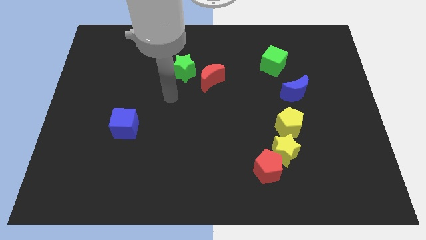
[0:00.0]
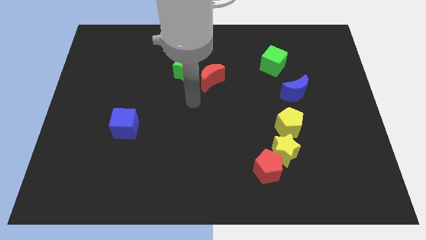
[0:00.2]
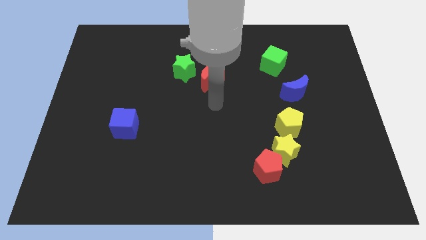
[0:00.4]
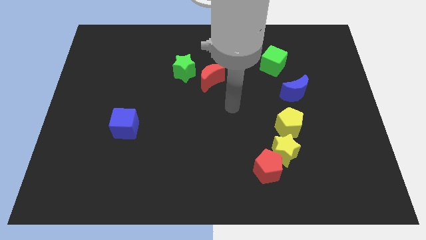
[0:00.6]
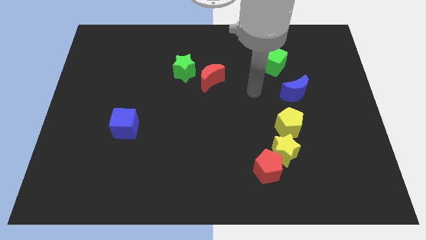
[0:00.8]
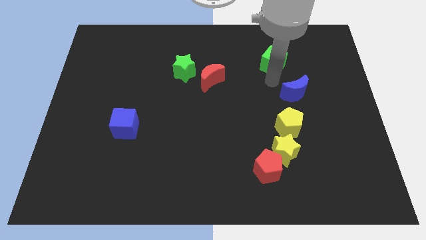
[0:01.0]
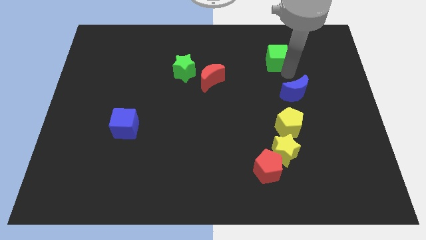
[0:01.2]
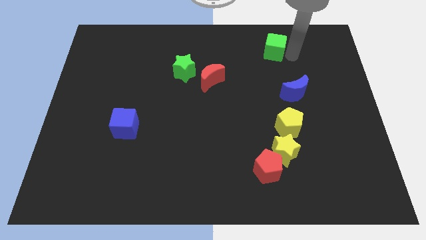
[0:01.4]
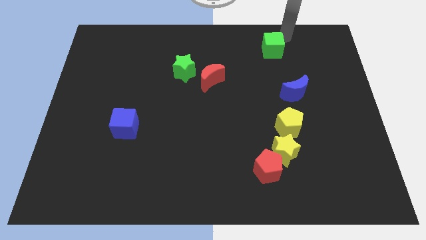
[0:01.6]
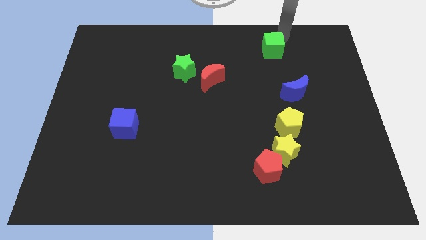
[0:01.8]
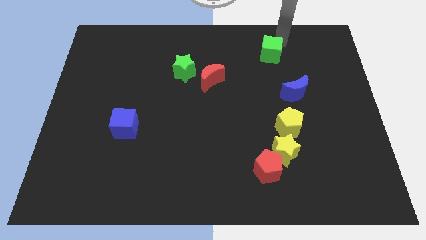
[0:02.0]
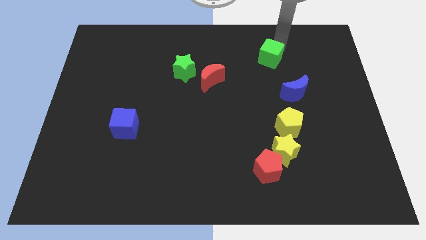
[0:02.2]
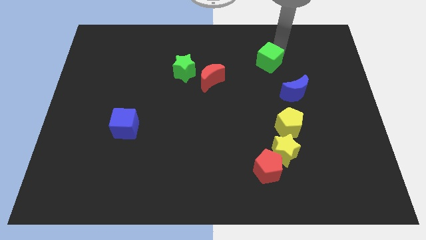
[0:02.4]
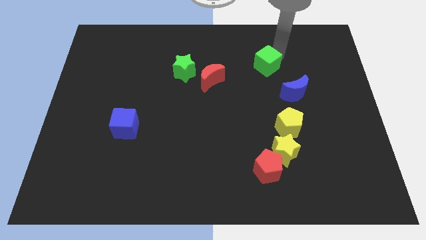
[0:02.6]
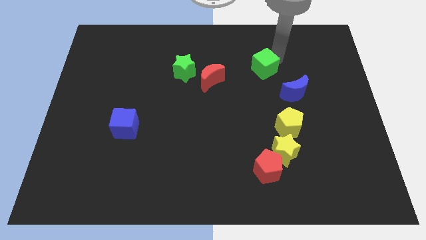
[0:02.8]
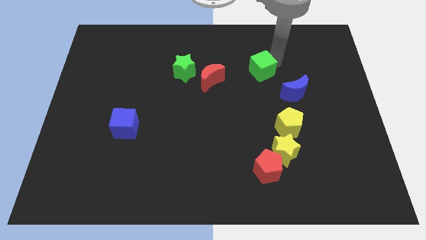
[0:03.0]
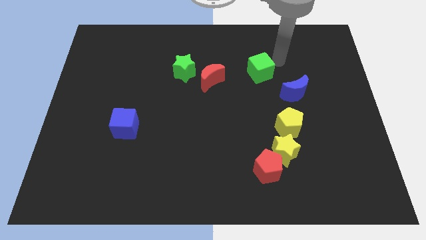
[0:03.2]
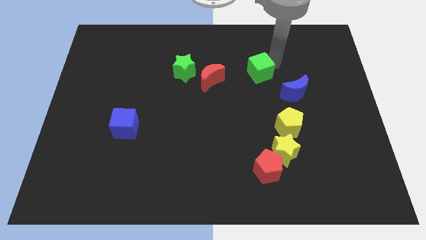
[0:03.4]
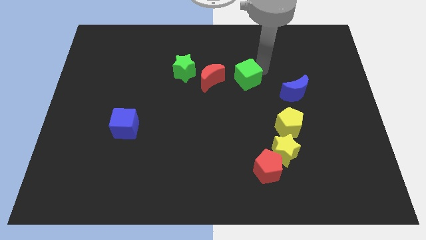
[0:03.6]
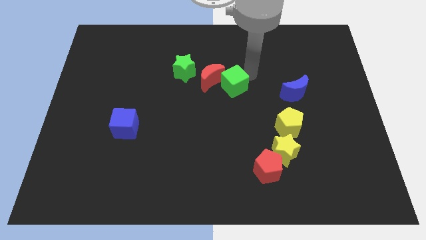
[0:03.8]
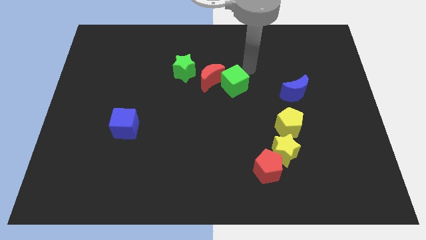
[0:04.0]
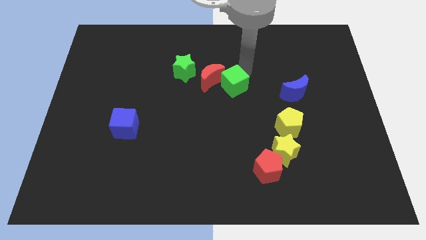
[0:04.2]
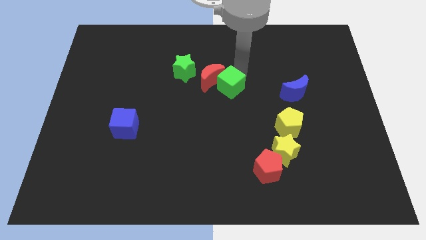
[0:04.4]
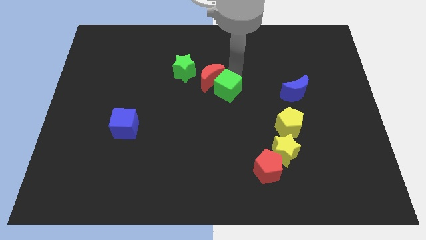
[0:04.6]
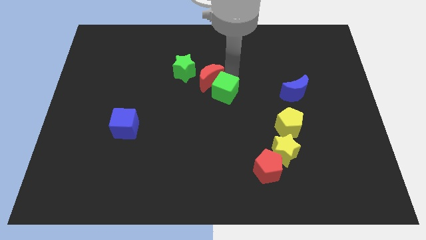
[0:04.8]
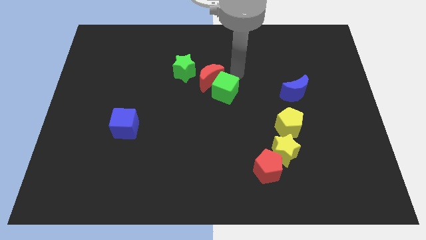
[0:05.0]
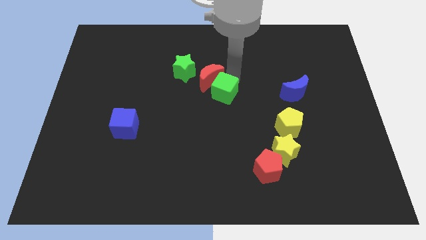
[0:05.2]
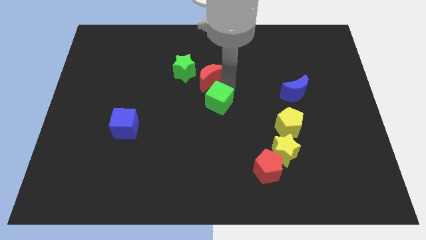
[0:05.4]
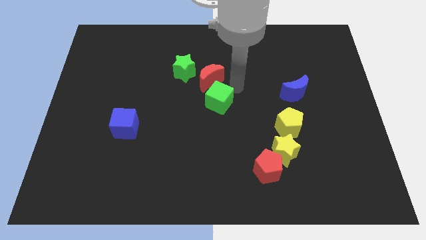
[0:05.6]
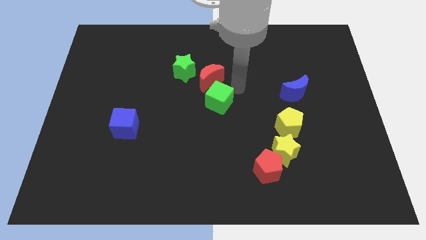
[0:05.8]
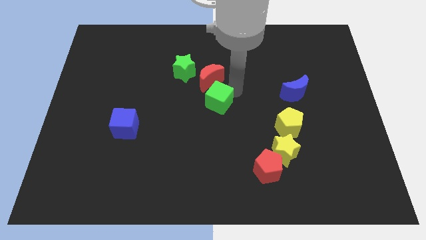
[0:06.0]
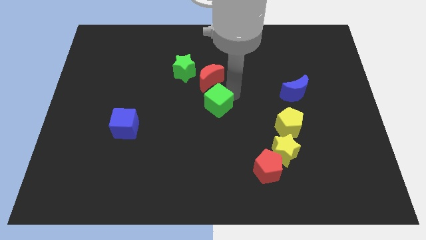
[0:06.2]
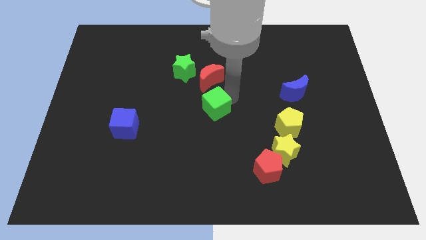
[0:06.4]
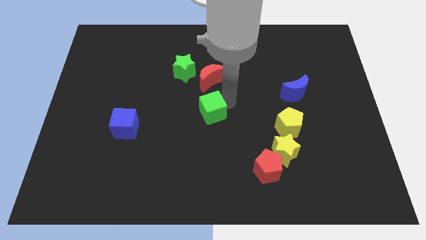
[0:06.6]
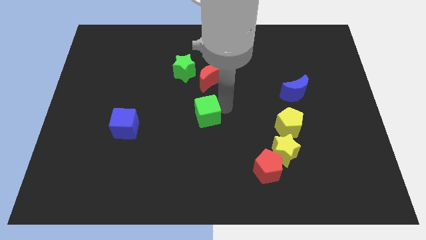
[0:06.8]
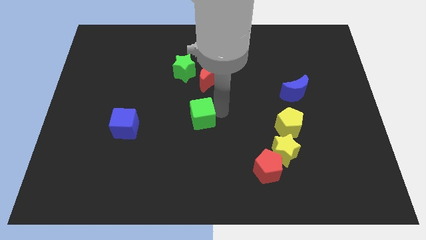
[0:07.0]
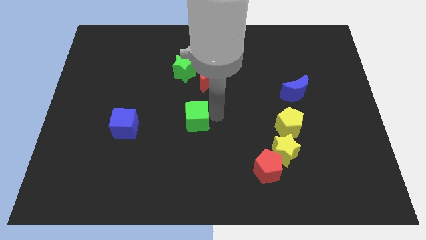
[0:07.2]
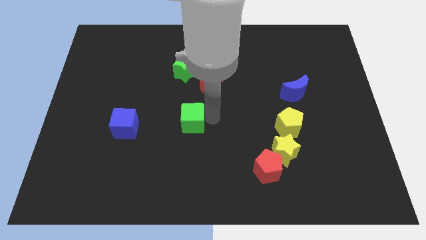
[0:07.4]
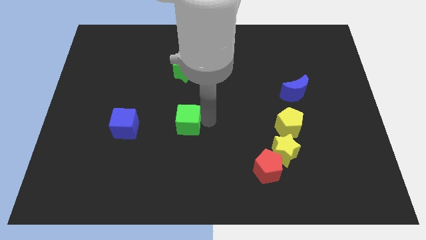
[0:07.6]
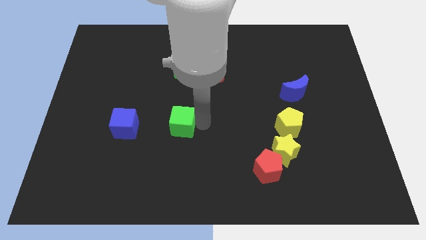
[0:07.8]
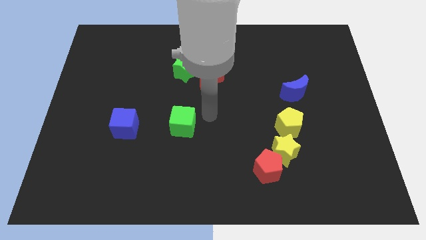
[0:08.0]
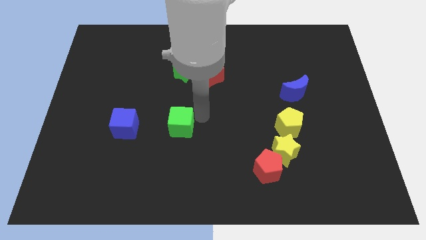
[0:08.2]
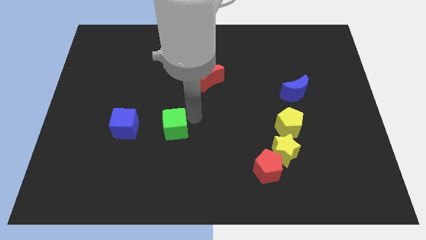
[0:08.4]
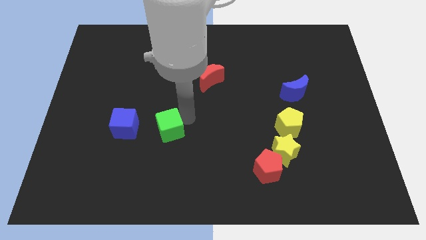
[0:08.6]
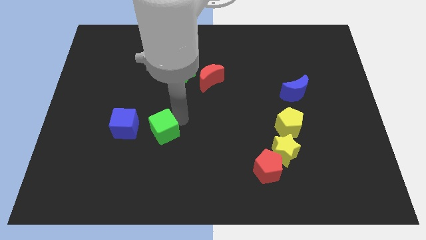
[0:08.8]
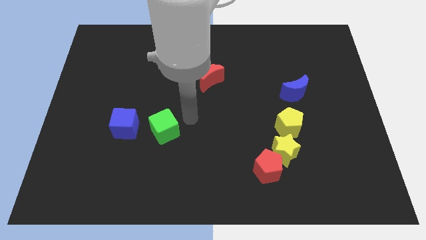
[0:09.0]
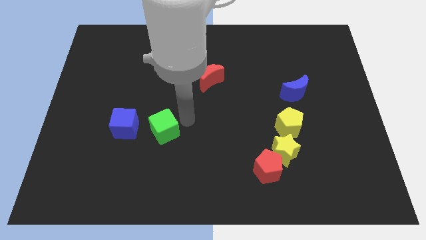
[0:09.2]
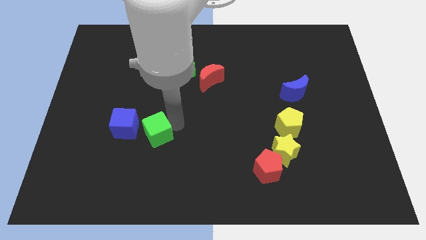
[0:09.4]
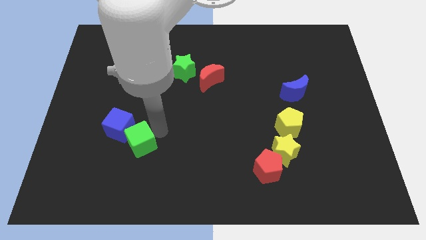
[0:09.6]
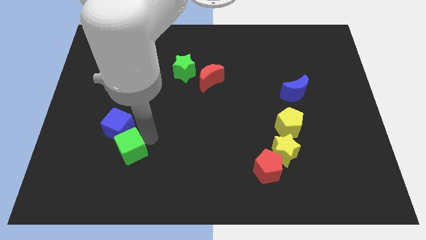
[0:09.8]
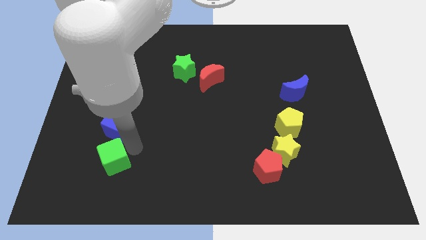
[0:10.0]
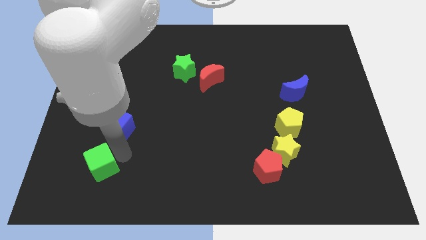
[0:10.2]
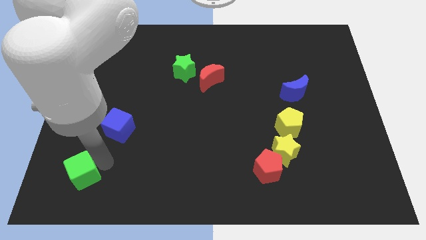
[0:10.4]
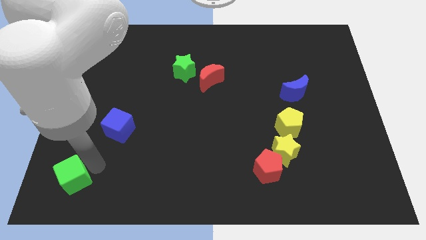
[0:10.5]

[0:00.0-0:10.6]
push the green cube to the bottom left of the board

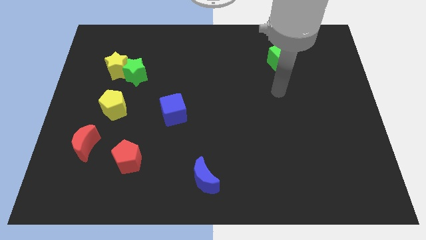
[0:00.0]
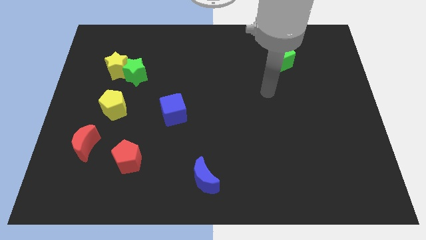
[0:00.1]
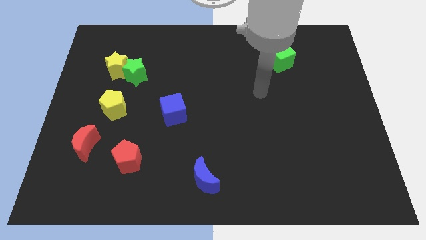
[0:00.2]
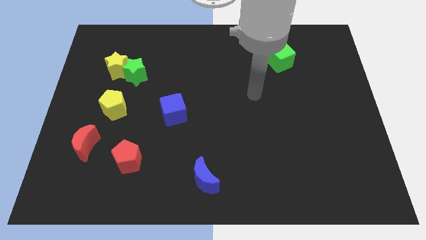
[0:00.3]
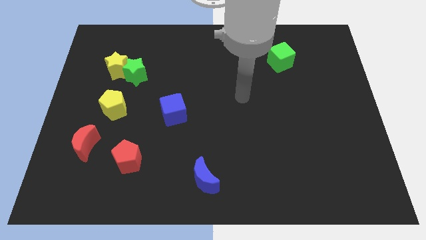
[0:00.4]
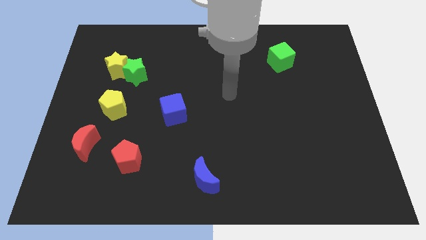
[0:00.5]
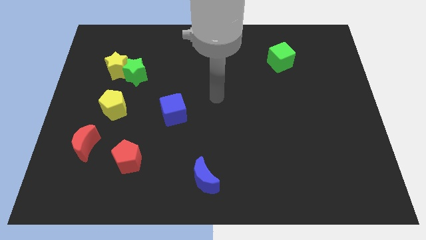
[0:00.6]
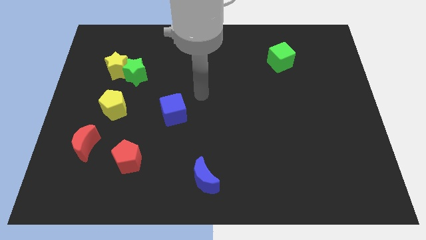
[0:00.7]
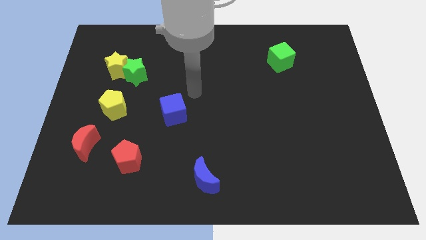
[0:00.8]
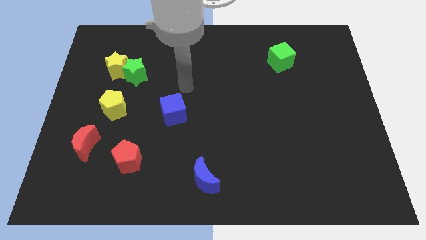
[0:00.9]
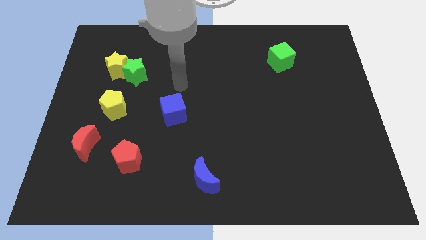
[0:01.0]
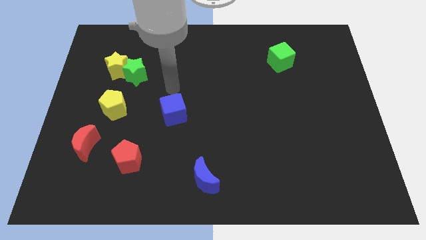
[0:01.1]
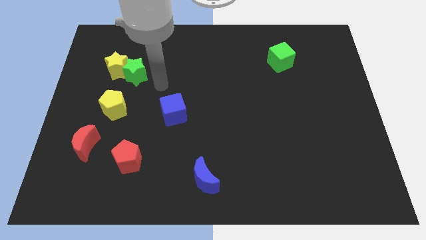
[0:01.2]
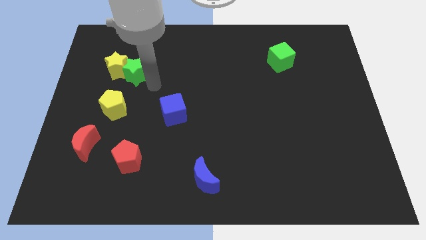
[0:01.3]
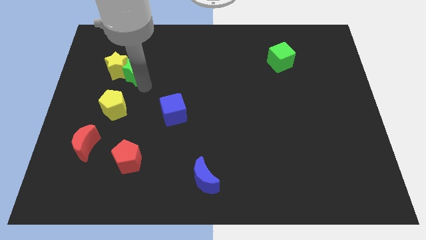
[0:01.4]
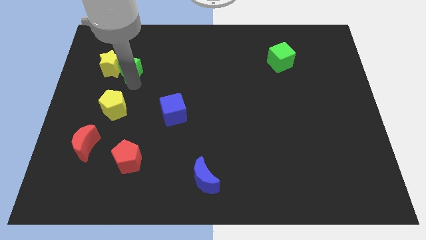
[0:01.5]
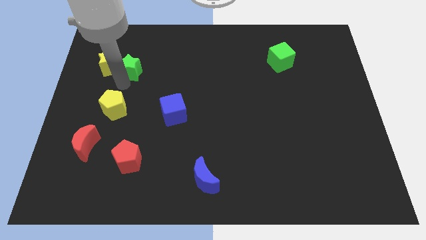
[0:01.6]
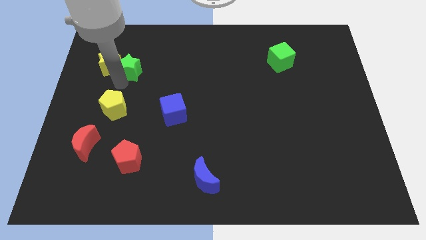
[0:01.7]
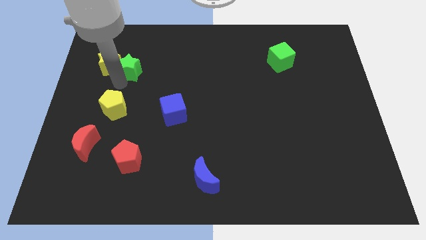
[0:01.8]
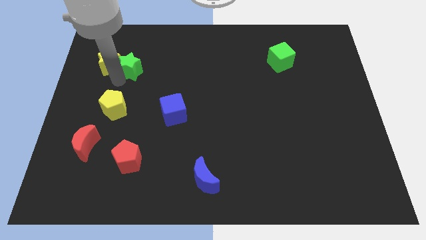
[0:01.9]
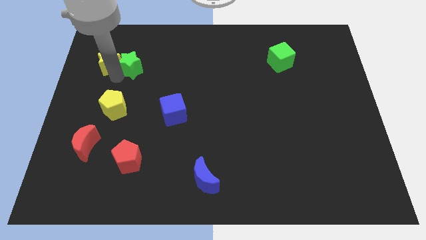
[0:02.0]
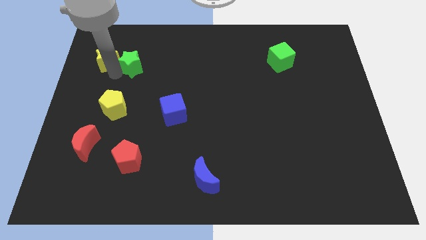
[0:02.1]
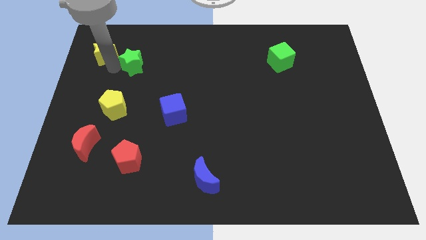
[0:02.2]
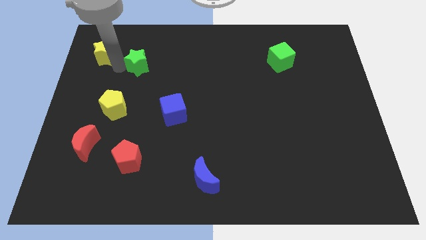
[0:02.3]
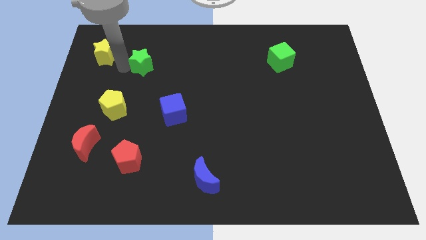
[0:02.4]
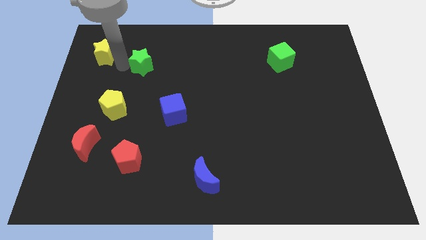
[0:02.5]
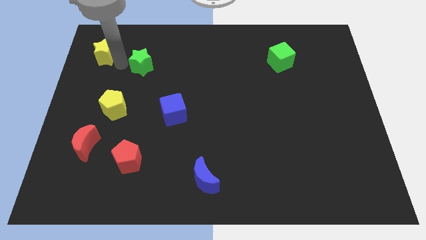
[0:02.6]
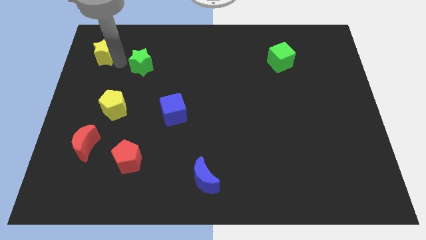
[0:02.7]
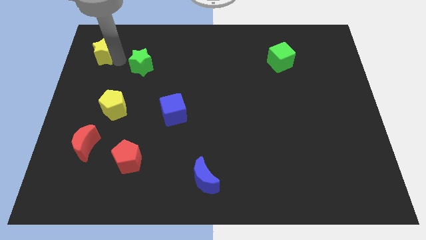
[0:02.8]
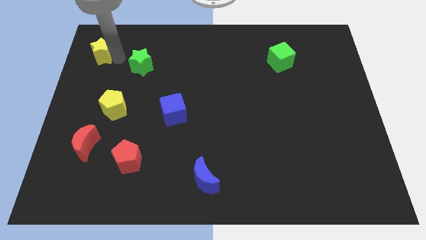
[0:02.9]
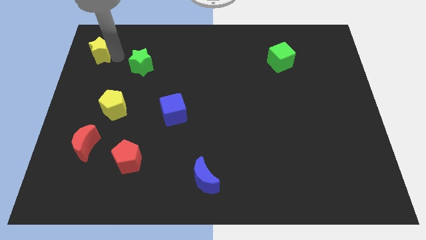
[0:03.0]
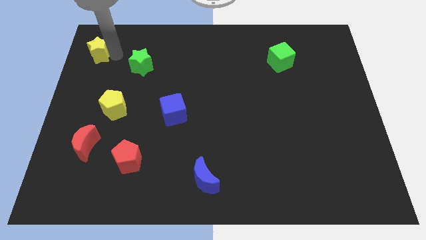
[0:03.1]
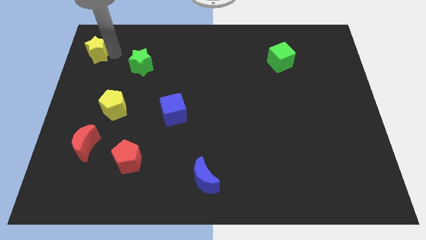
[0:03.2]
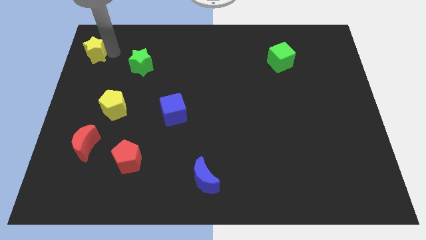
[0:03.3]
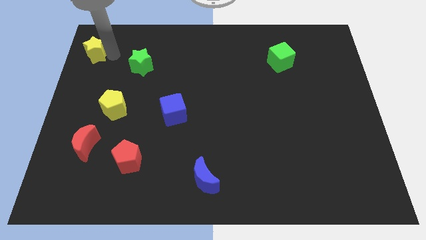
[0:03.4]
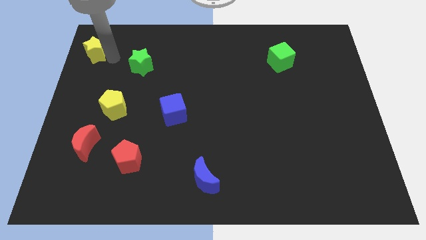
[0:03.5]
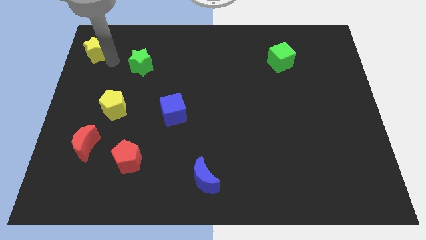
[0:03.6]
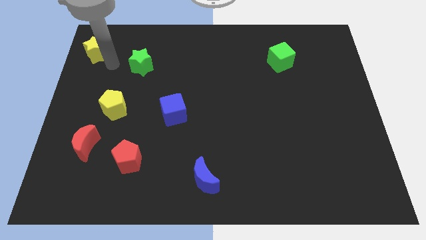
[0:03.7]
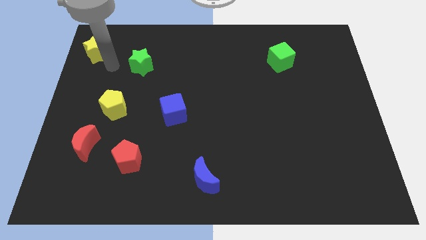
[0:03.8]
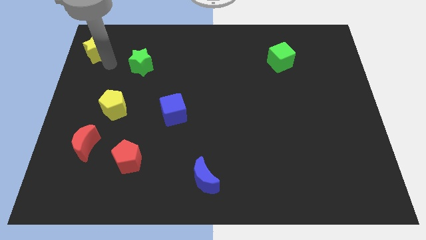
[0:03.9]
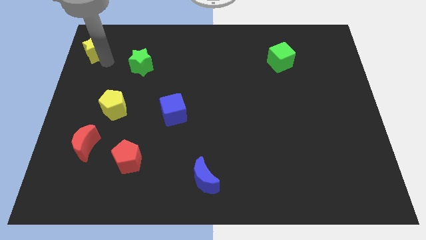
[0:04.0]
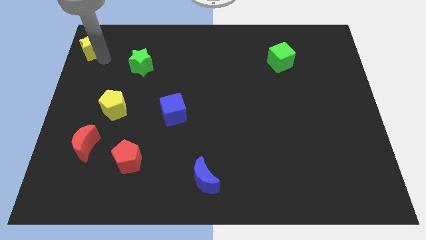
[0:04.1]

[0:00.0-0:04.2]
move the yellow star to the top left corner
